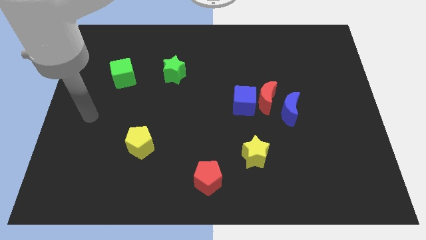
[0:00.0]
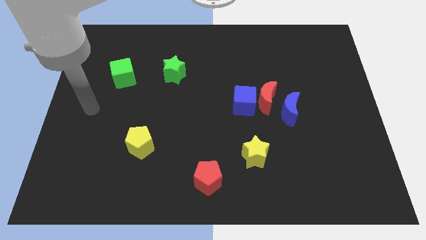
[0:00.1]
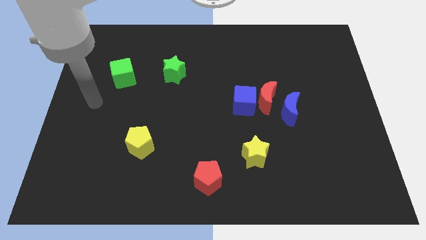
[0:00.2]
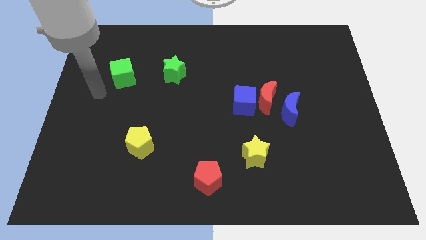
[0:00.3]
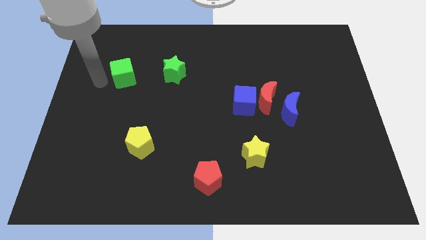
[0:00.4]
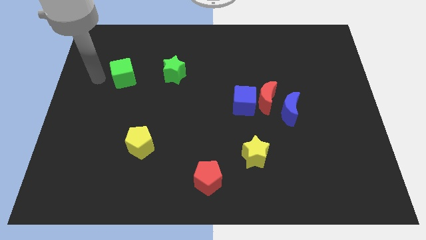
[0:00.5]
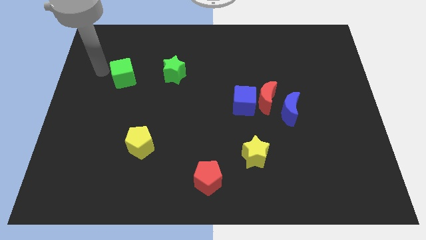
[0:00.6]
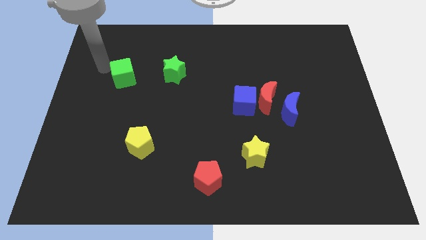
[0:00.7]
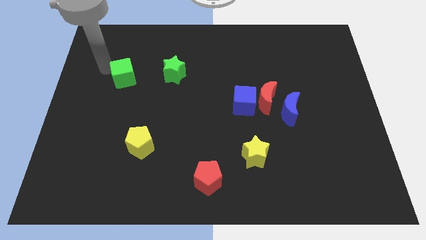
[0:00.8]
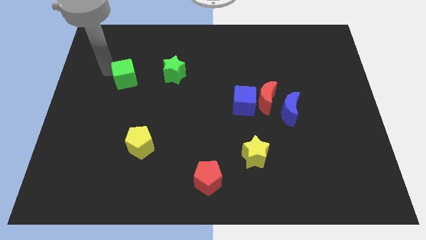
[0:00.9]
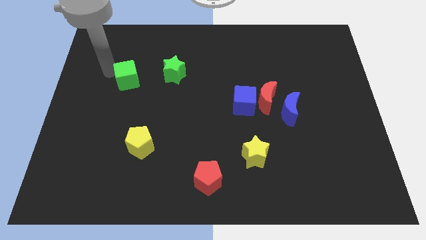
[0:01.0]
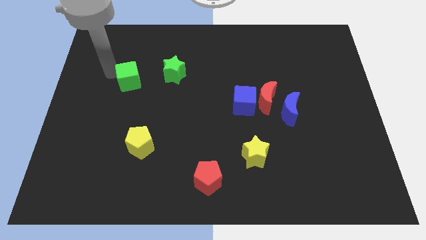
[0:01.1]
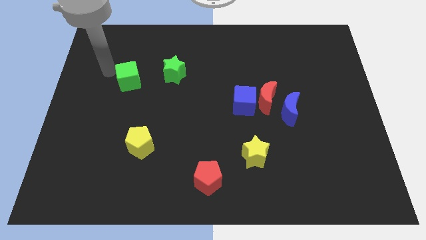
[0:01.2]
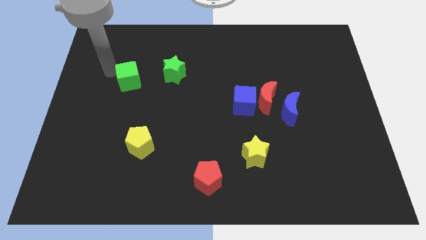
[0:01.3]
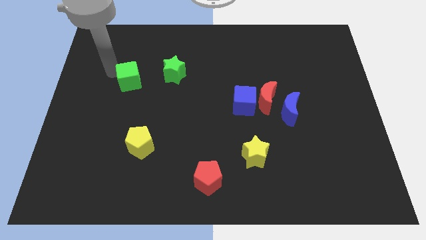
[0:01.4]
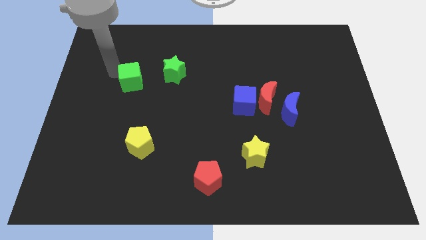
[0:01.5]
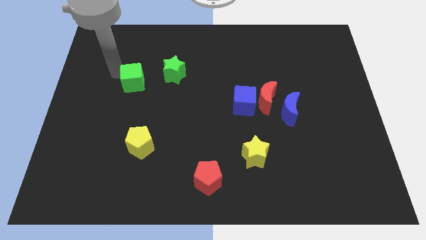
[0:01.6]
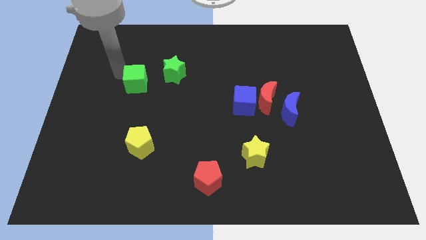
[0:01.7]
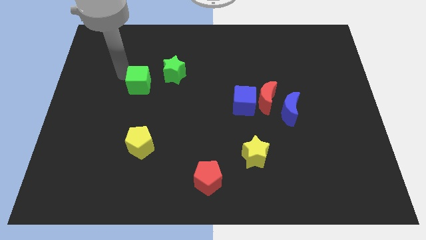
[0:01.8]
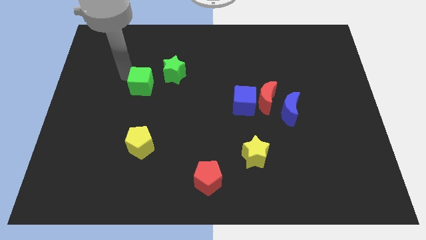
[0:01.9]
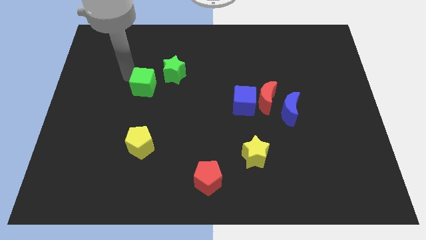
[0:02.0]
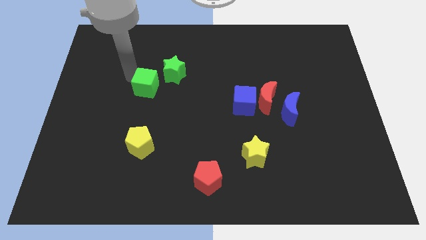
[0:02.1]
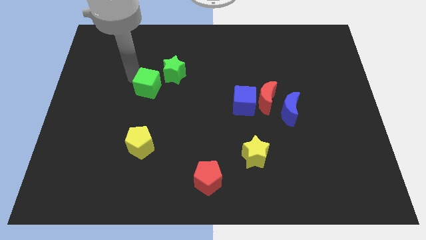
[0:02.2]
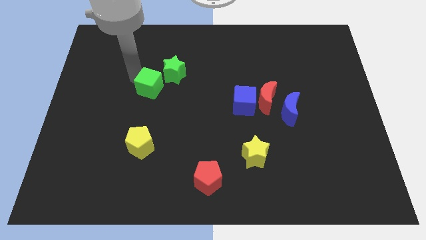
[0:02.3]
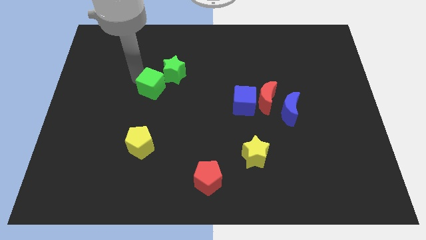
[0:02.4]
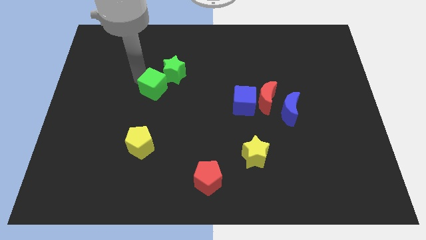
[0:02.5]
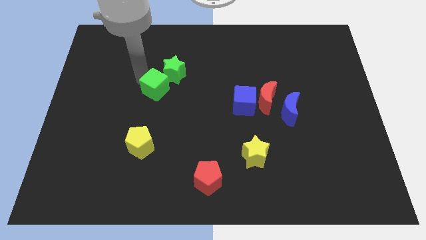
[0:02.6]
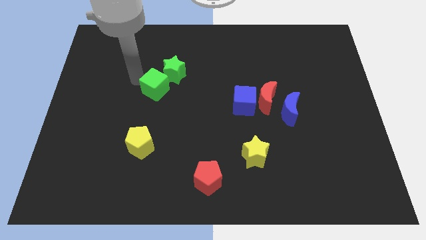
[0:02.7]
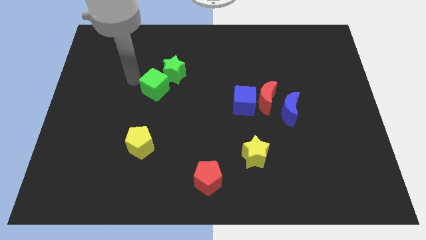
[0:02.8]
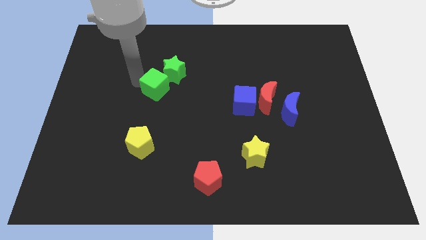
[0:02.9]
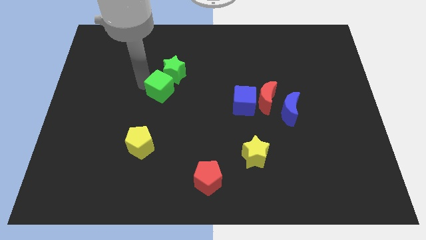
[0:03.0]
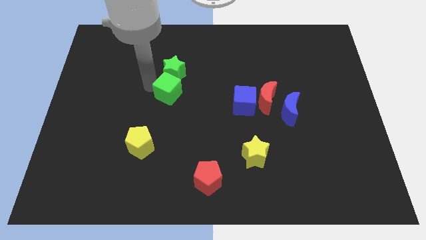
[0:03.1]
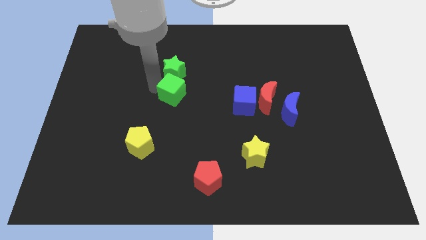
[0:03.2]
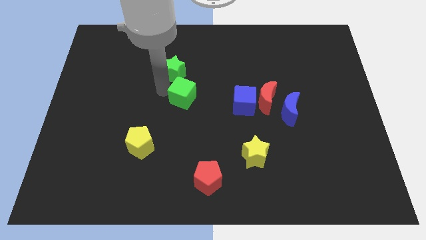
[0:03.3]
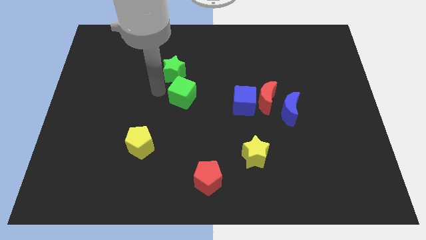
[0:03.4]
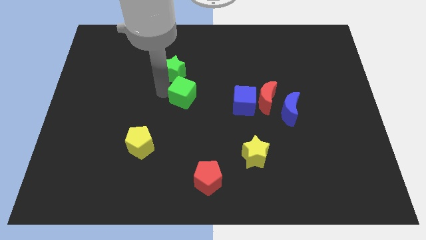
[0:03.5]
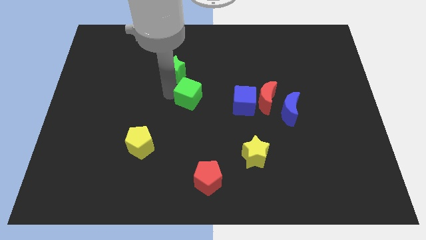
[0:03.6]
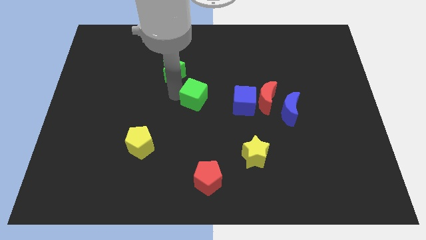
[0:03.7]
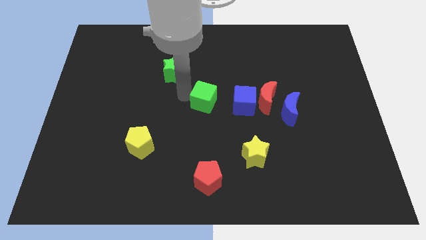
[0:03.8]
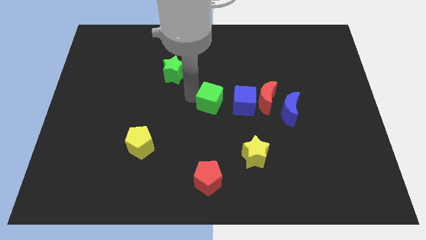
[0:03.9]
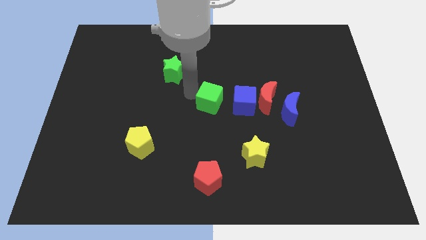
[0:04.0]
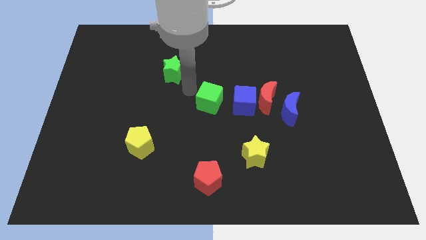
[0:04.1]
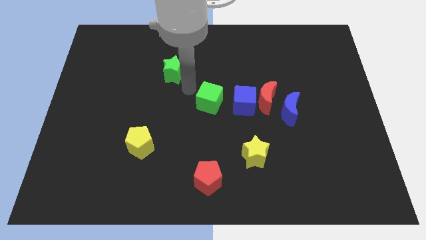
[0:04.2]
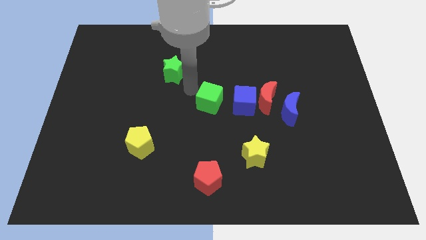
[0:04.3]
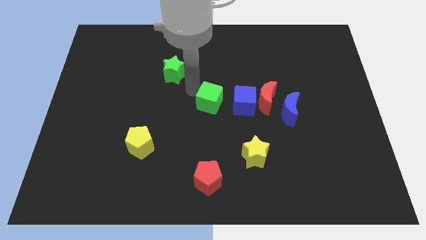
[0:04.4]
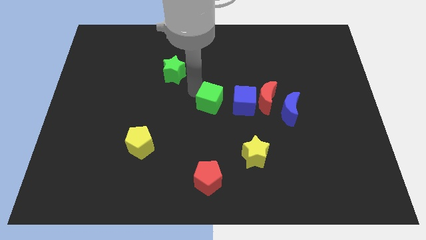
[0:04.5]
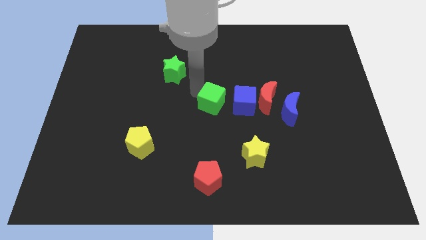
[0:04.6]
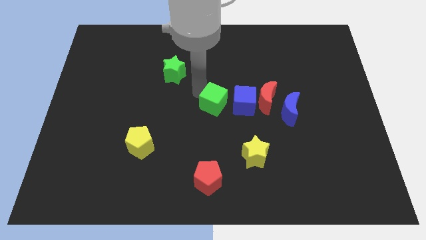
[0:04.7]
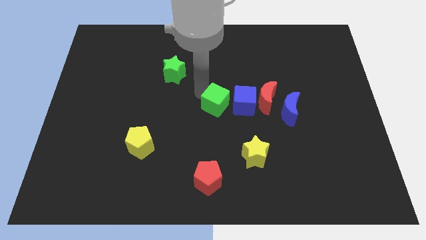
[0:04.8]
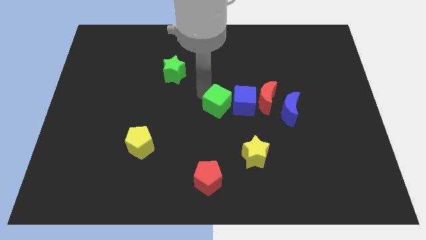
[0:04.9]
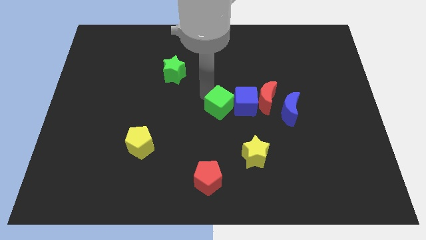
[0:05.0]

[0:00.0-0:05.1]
slide the green cube left of the blue moon

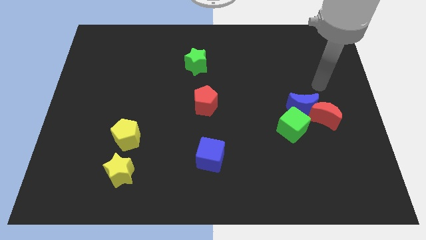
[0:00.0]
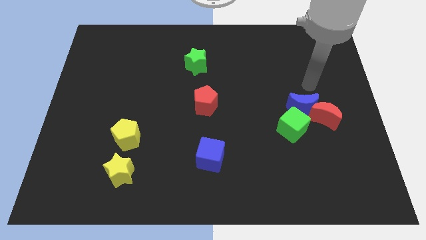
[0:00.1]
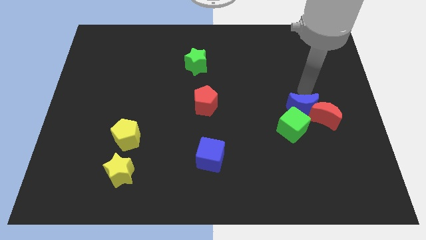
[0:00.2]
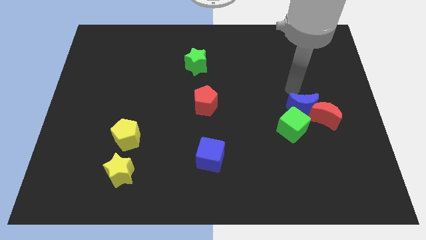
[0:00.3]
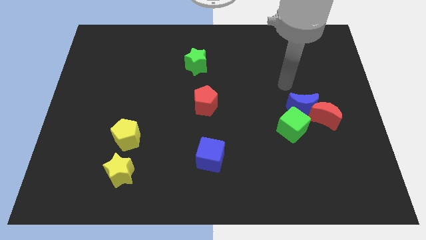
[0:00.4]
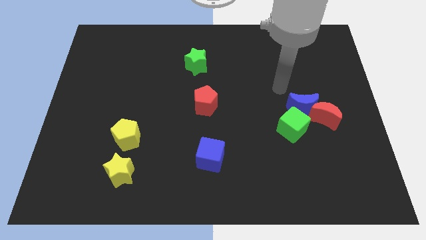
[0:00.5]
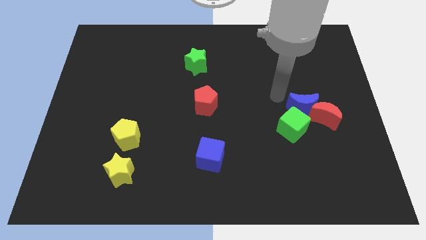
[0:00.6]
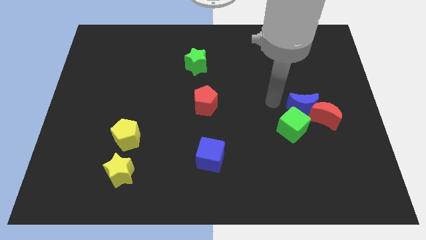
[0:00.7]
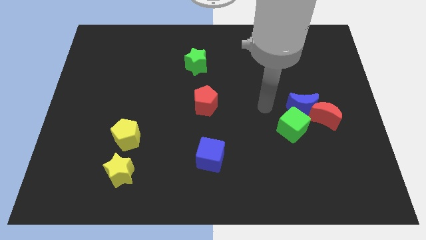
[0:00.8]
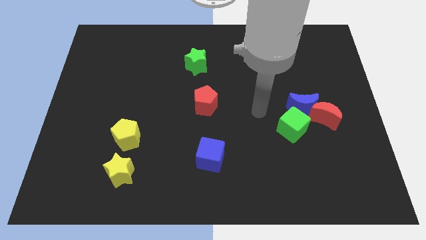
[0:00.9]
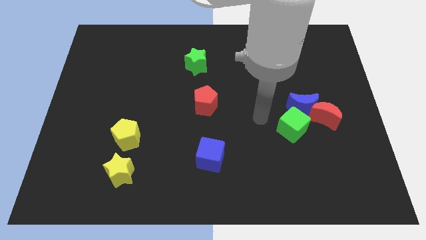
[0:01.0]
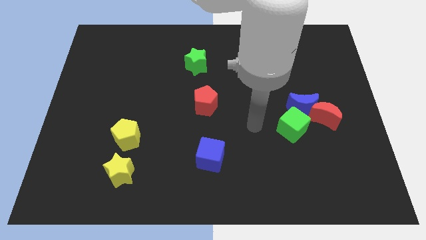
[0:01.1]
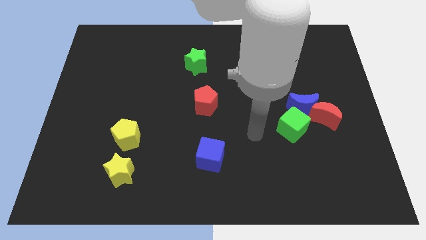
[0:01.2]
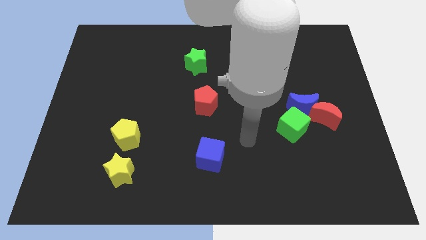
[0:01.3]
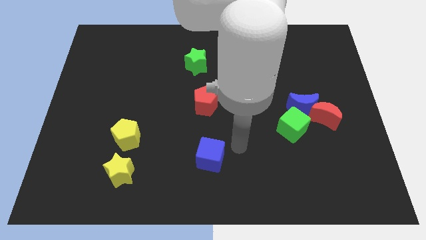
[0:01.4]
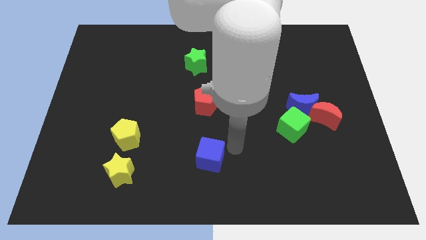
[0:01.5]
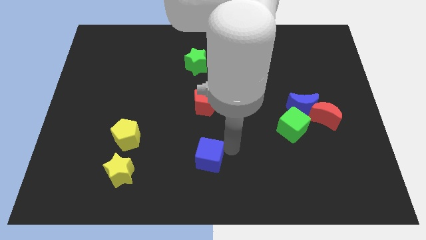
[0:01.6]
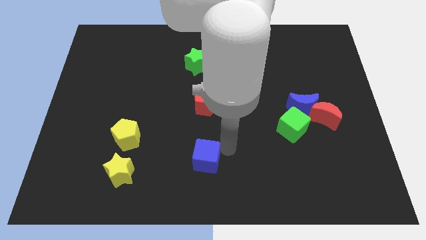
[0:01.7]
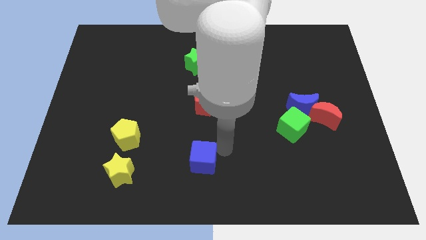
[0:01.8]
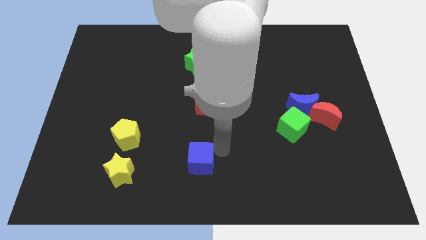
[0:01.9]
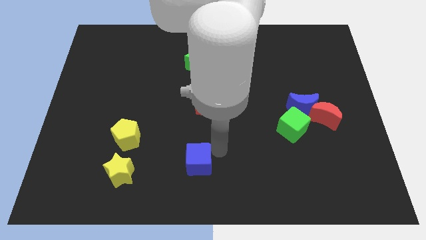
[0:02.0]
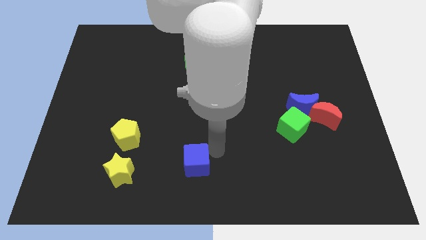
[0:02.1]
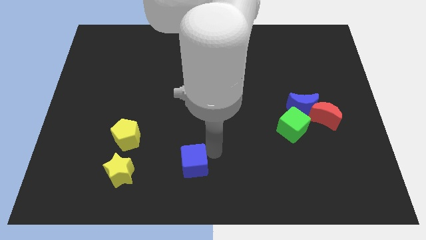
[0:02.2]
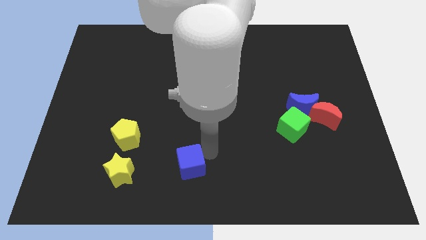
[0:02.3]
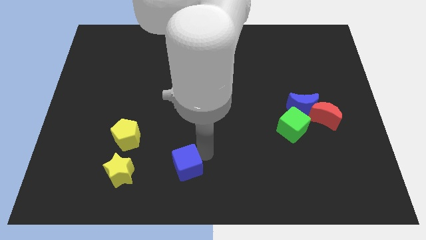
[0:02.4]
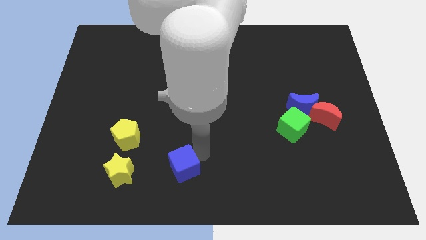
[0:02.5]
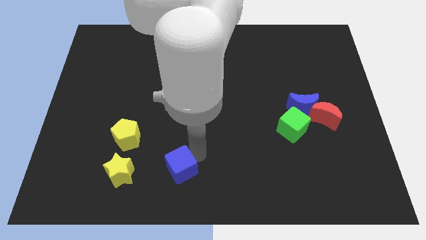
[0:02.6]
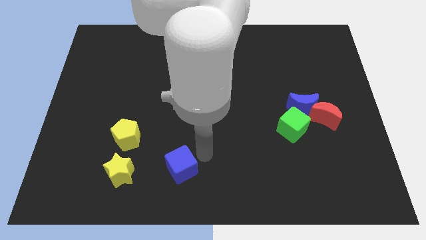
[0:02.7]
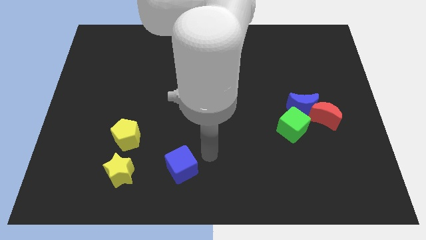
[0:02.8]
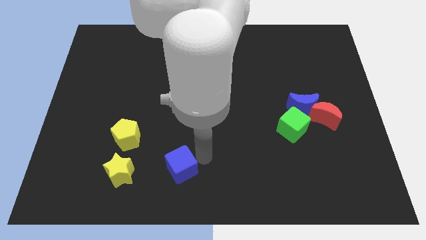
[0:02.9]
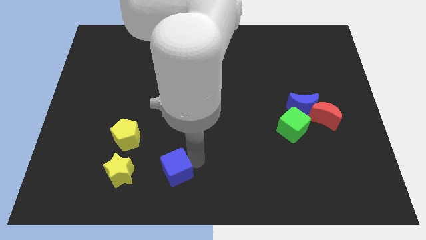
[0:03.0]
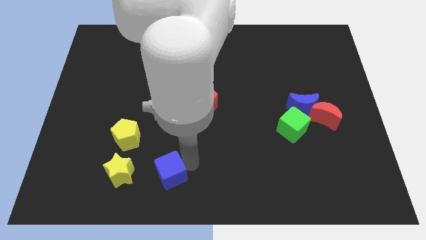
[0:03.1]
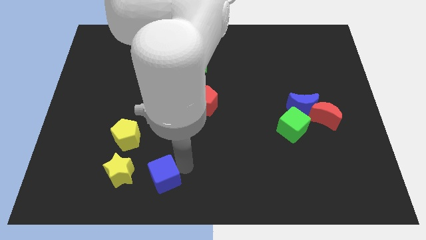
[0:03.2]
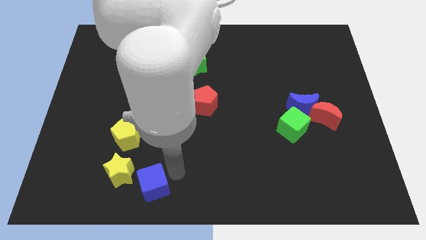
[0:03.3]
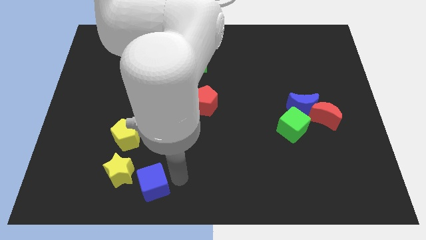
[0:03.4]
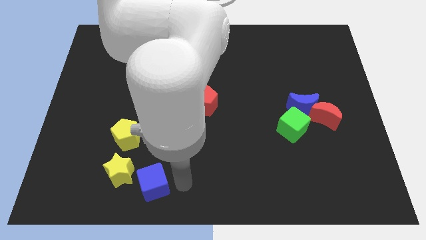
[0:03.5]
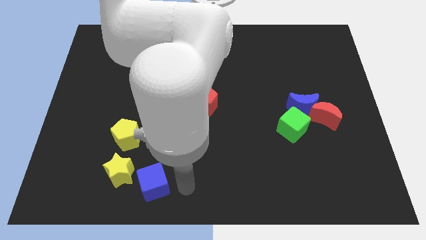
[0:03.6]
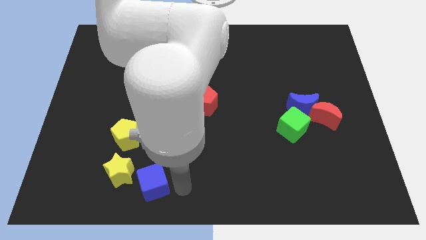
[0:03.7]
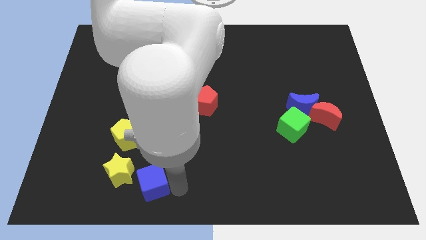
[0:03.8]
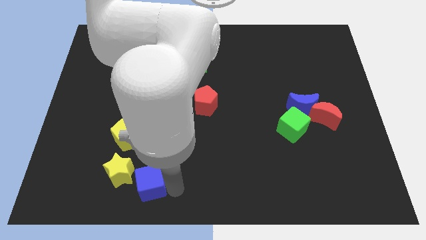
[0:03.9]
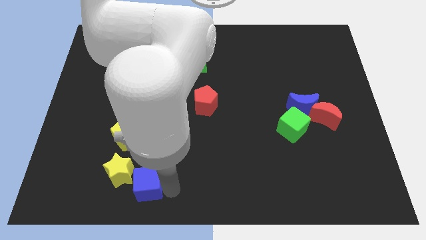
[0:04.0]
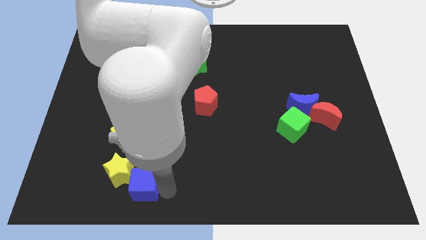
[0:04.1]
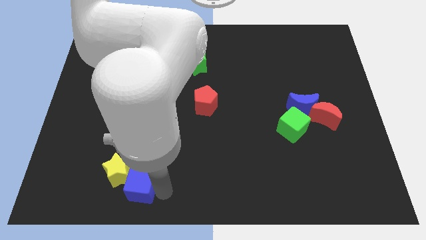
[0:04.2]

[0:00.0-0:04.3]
move the blue cube to the bottom side of the yellow pentagon
